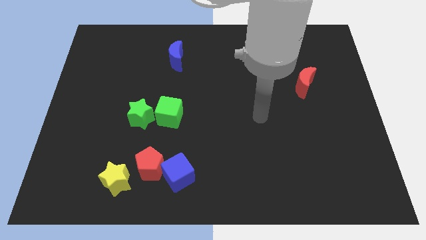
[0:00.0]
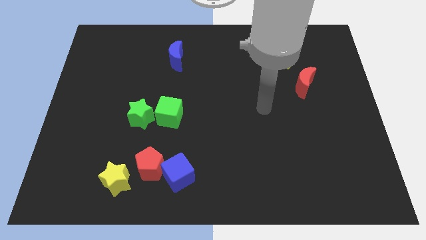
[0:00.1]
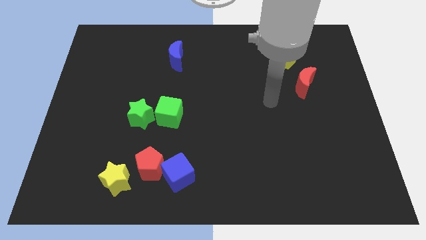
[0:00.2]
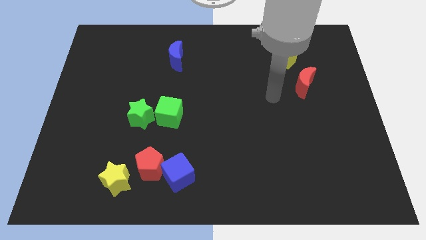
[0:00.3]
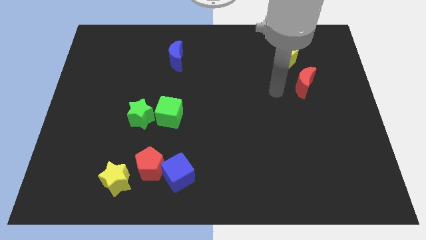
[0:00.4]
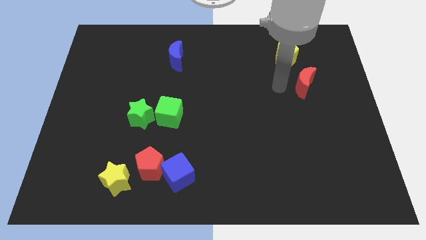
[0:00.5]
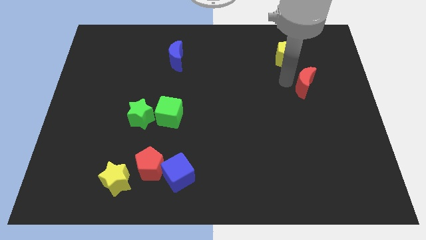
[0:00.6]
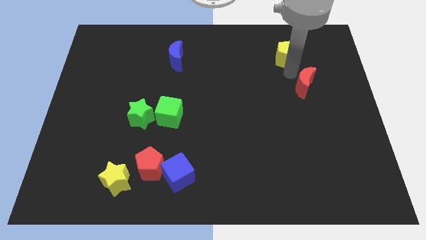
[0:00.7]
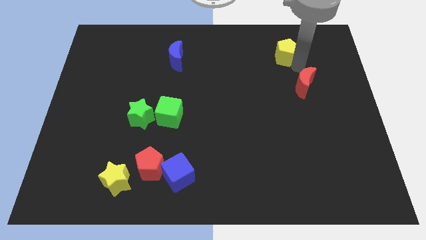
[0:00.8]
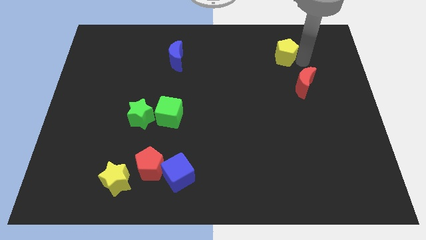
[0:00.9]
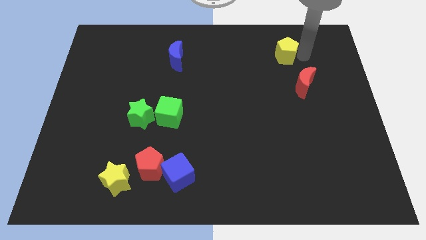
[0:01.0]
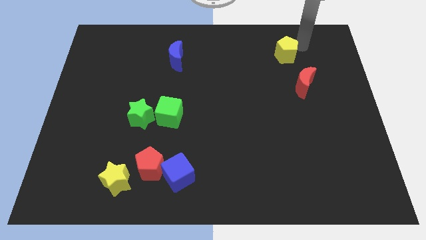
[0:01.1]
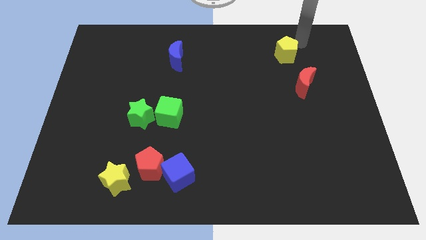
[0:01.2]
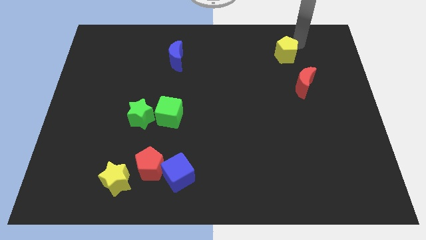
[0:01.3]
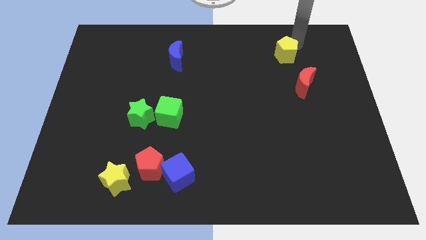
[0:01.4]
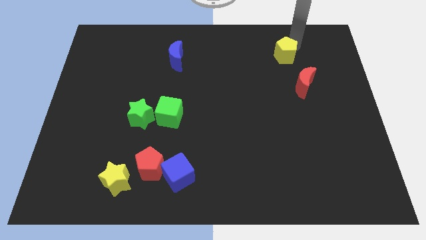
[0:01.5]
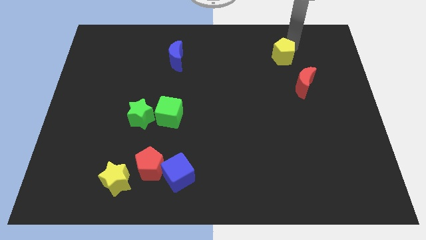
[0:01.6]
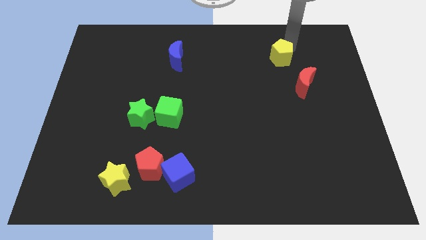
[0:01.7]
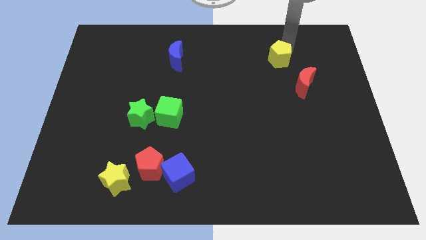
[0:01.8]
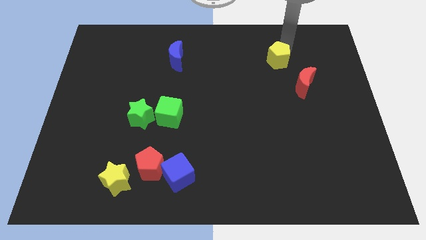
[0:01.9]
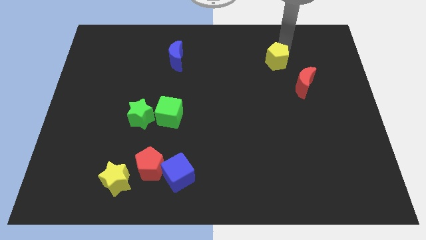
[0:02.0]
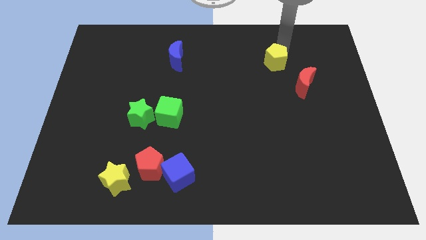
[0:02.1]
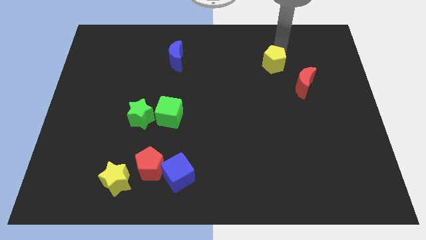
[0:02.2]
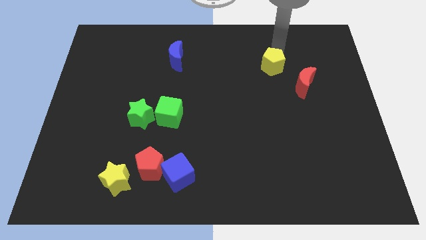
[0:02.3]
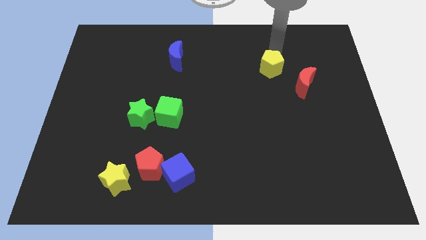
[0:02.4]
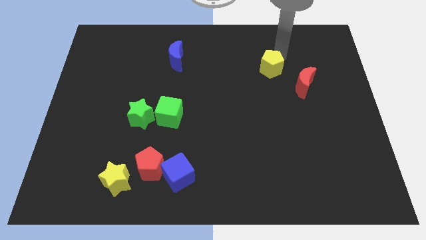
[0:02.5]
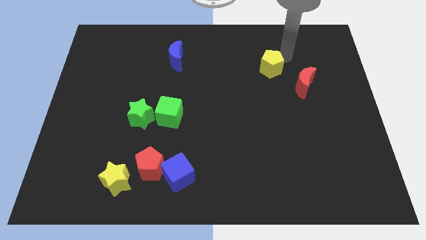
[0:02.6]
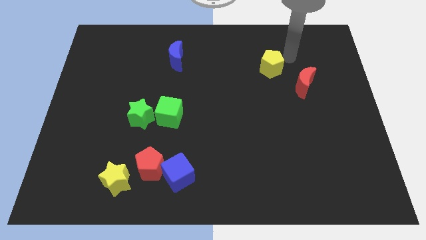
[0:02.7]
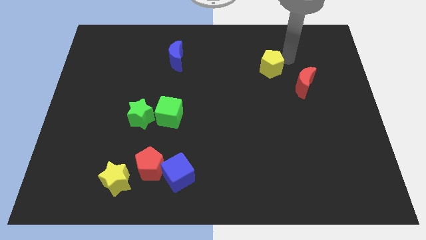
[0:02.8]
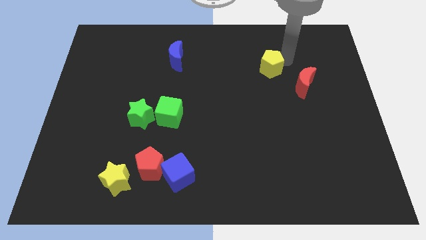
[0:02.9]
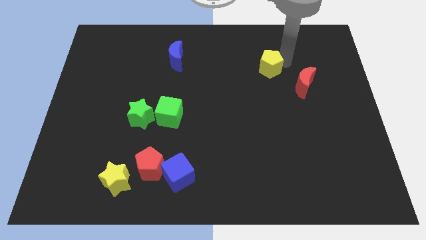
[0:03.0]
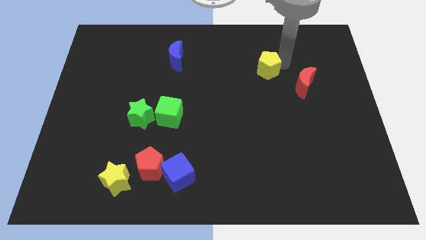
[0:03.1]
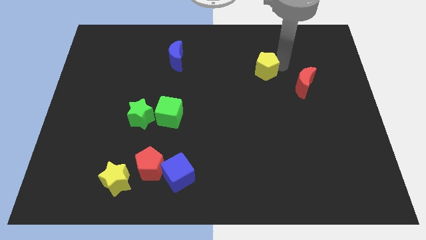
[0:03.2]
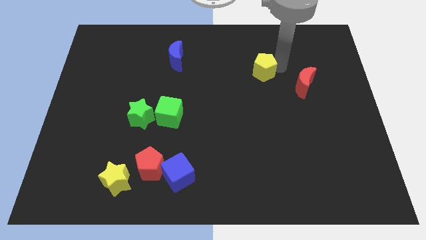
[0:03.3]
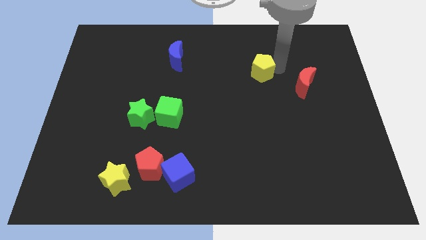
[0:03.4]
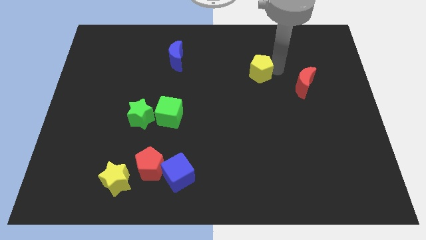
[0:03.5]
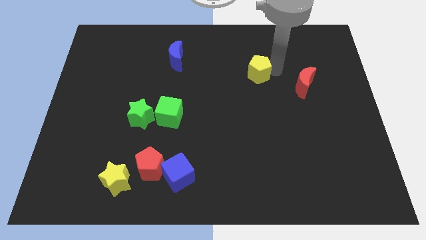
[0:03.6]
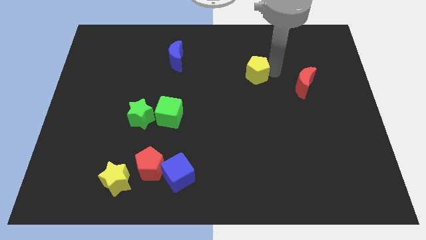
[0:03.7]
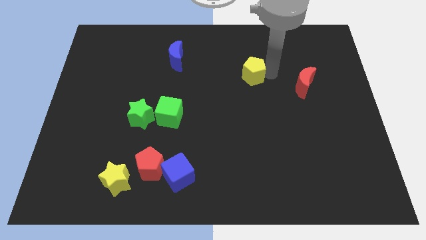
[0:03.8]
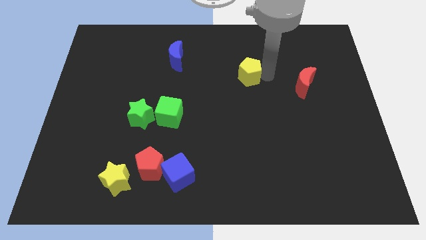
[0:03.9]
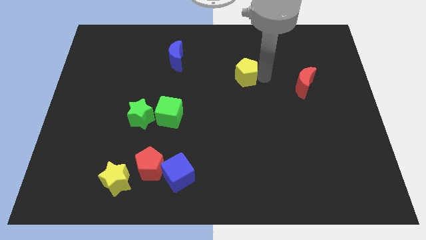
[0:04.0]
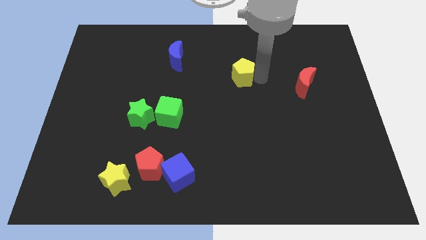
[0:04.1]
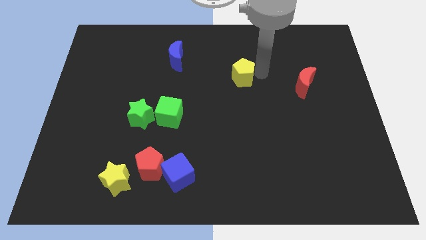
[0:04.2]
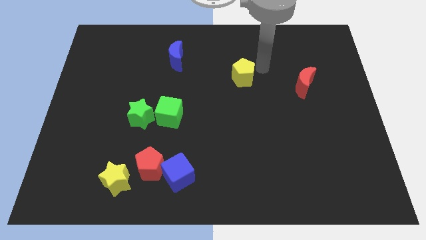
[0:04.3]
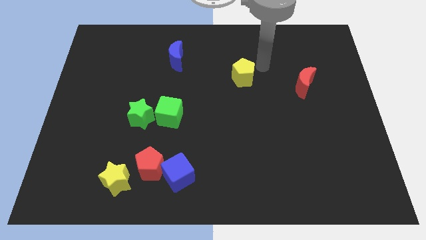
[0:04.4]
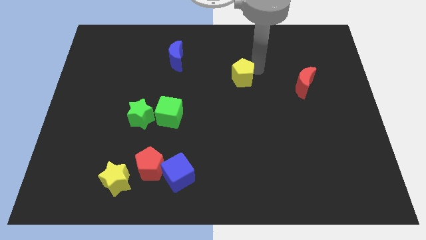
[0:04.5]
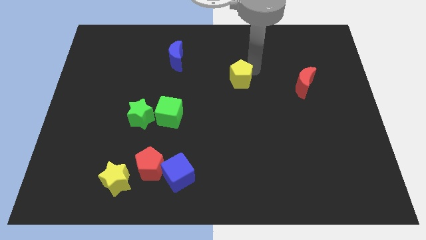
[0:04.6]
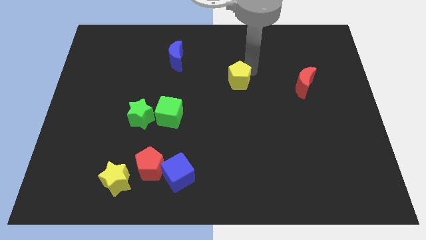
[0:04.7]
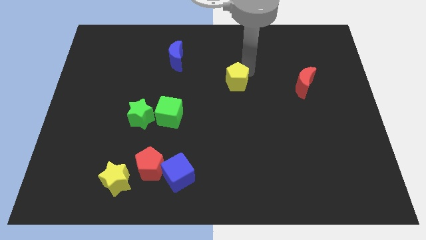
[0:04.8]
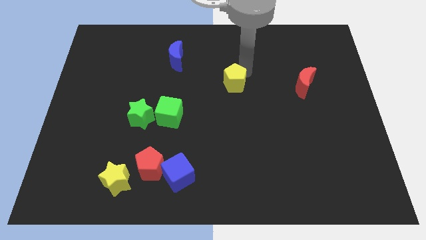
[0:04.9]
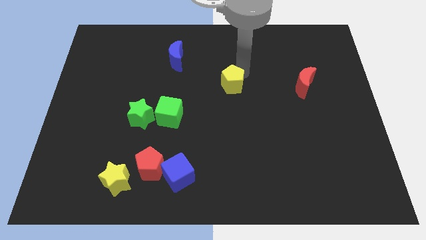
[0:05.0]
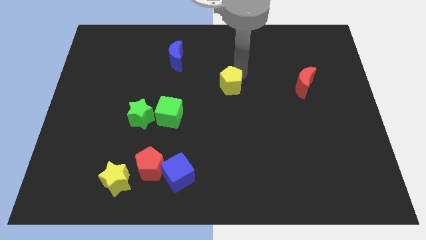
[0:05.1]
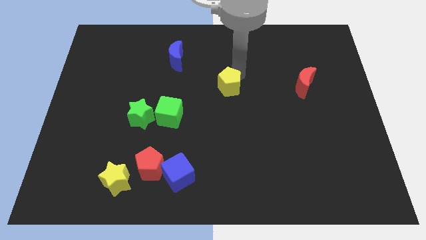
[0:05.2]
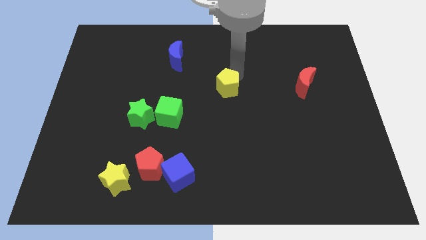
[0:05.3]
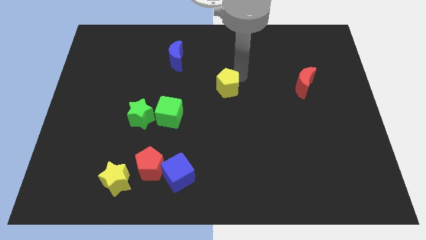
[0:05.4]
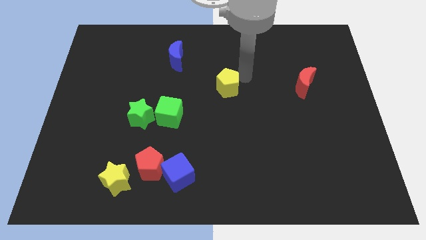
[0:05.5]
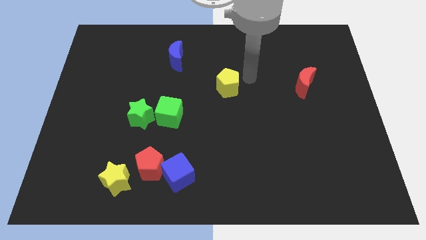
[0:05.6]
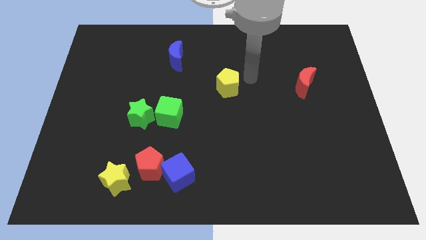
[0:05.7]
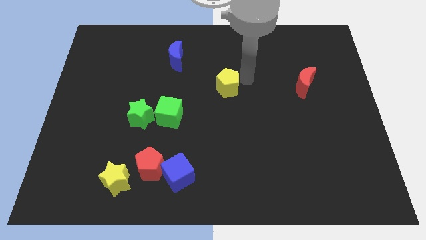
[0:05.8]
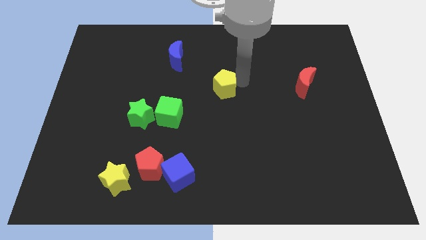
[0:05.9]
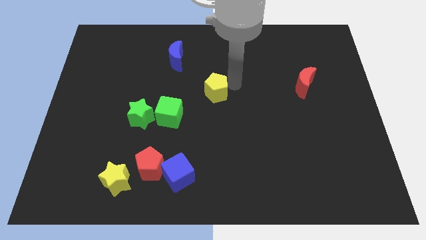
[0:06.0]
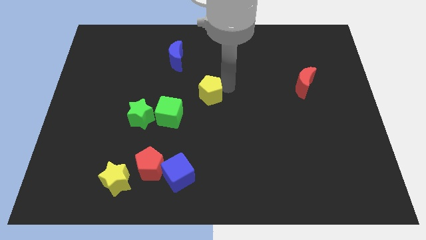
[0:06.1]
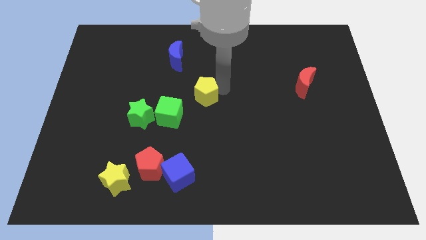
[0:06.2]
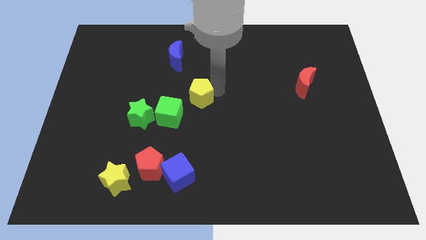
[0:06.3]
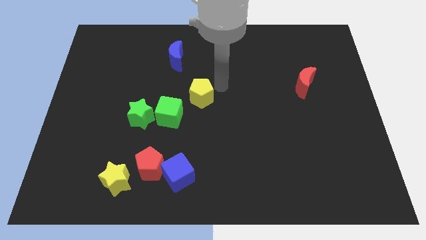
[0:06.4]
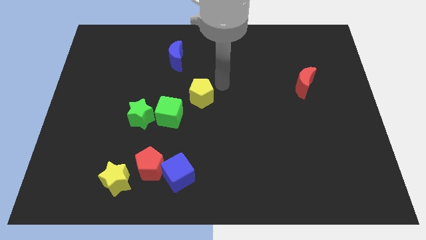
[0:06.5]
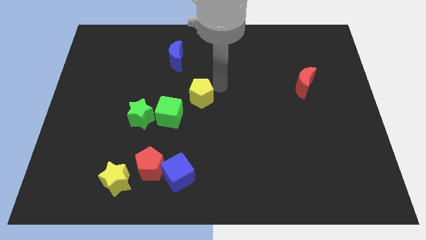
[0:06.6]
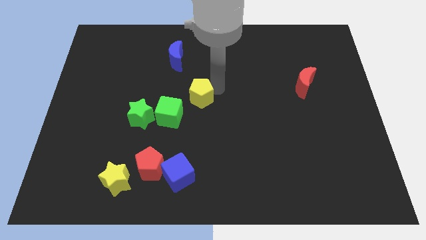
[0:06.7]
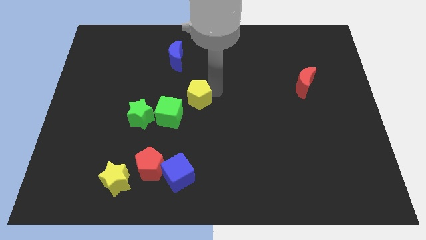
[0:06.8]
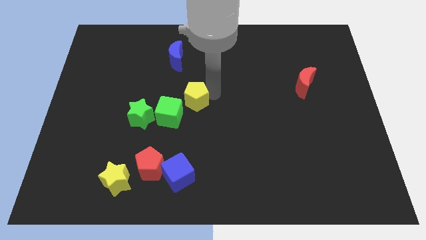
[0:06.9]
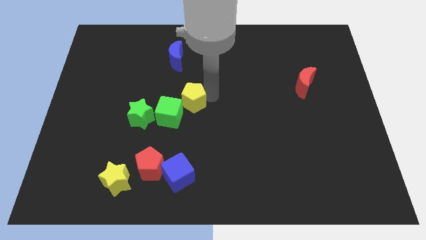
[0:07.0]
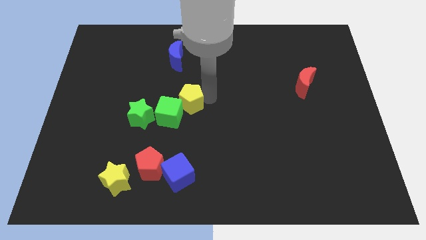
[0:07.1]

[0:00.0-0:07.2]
push the yellow pentagon to the green cube
